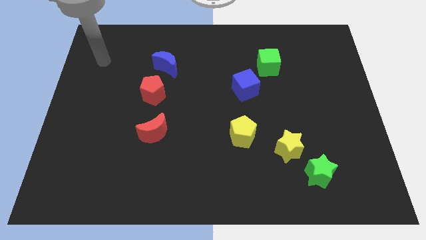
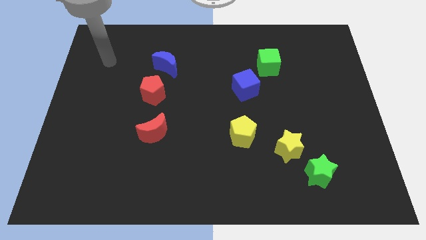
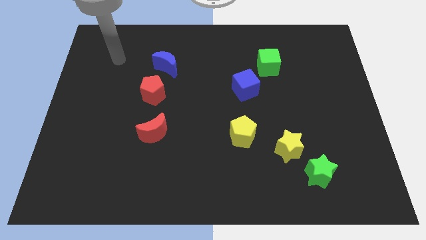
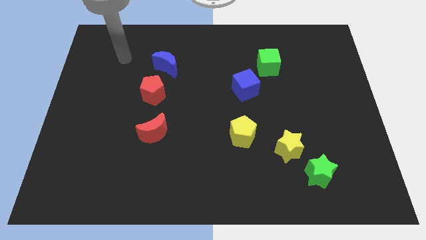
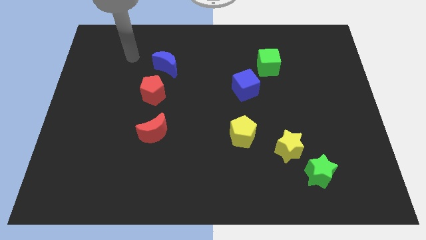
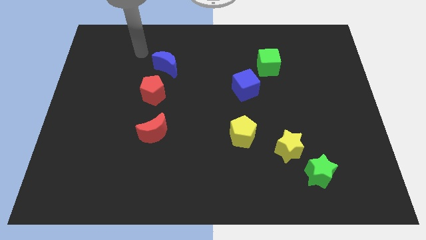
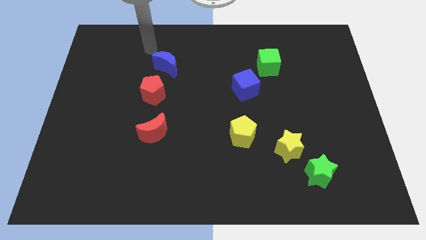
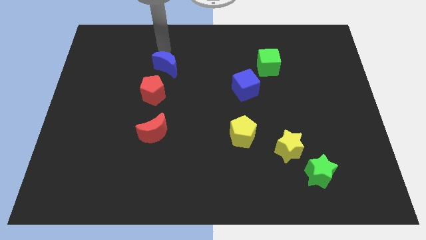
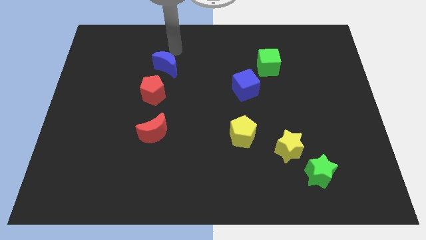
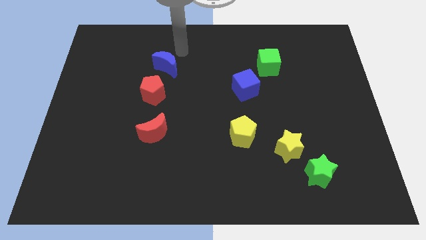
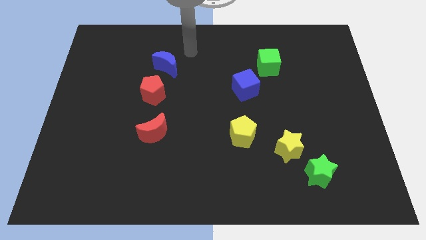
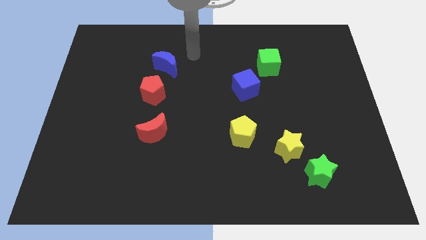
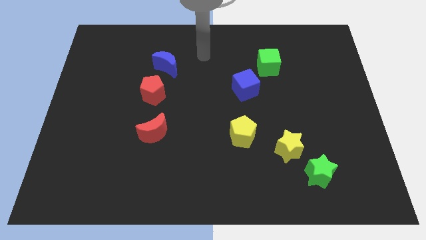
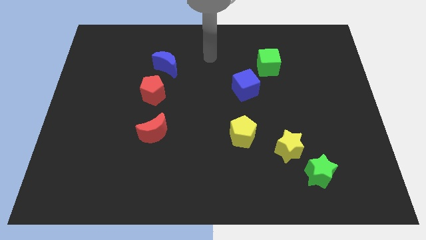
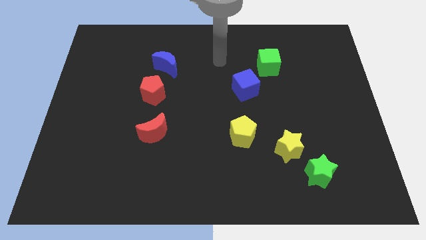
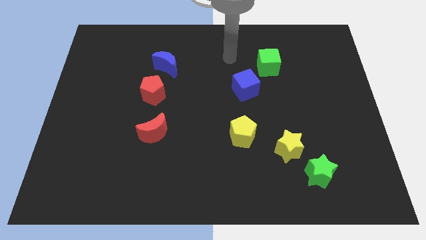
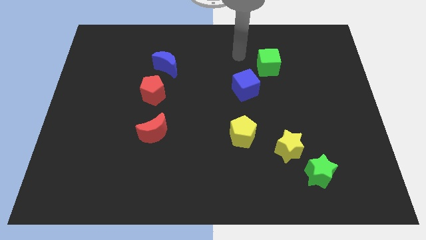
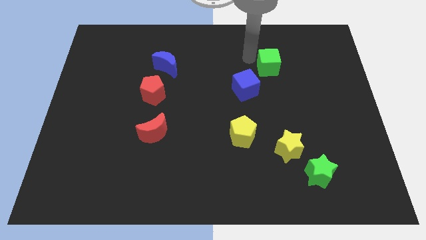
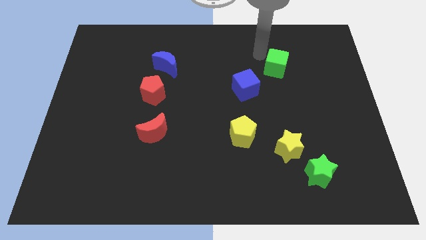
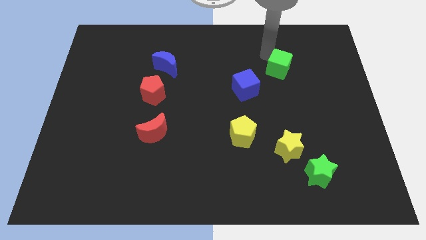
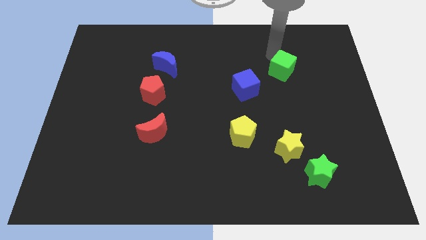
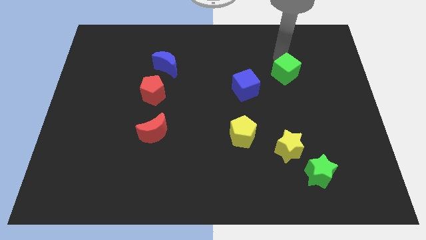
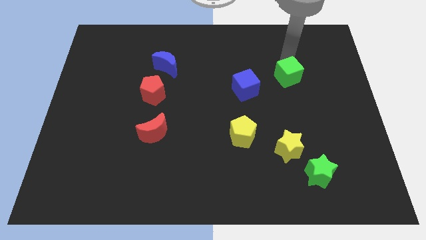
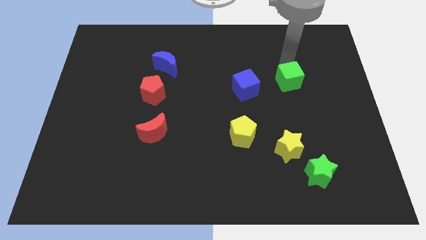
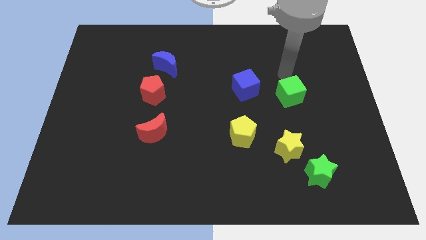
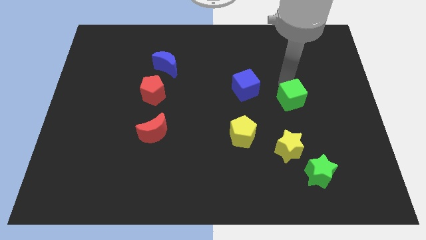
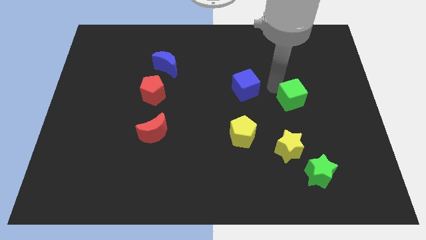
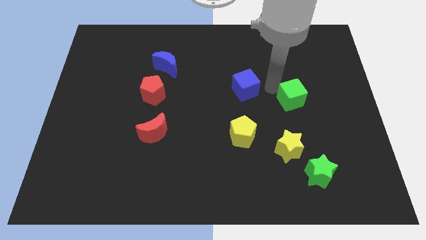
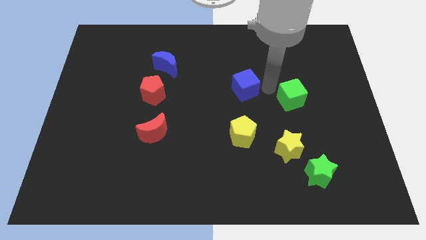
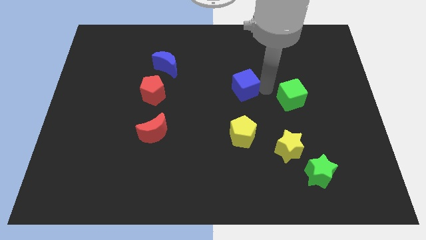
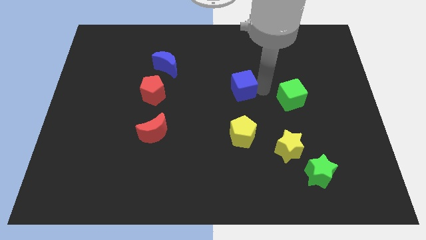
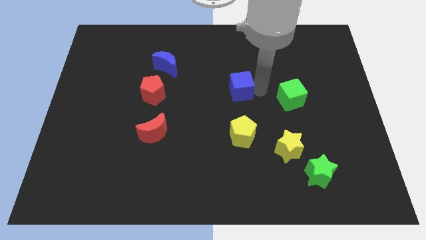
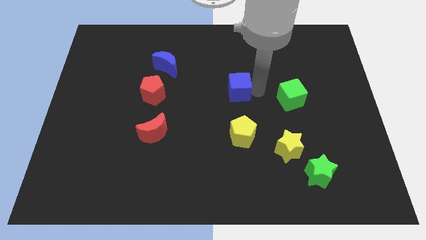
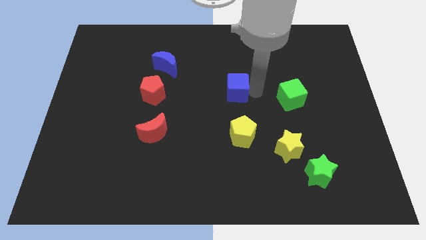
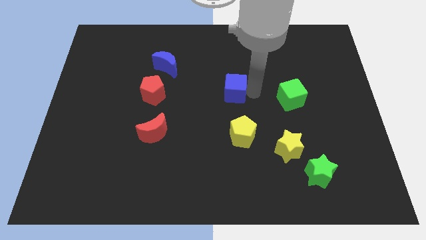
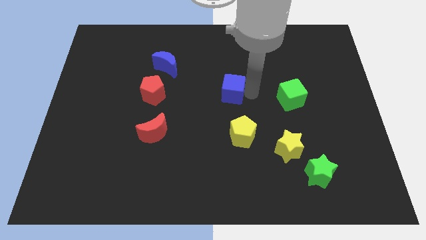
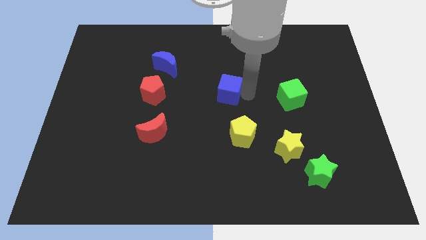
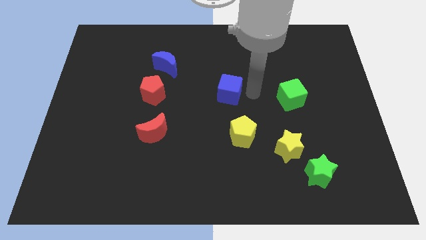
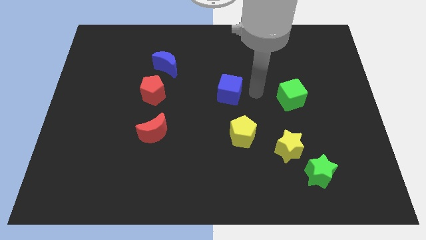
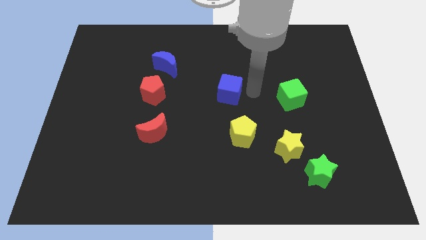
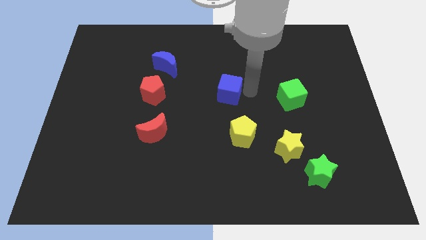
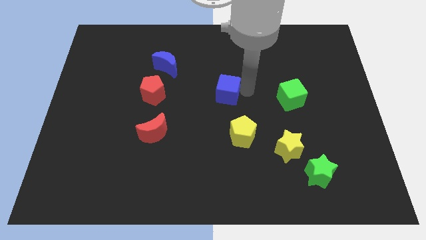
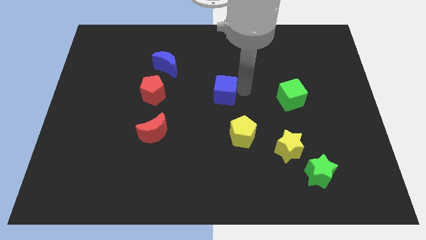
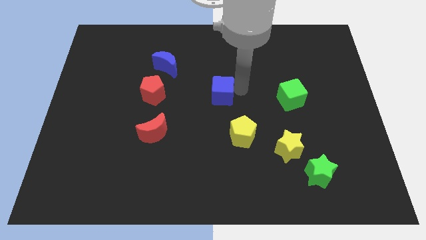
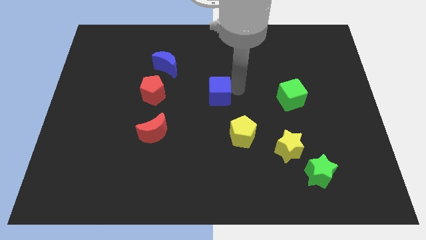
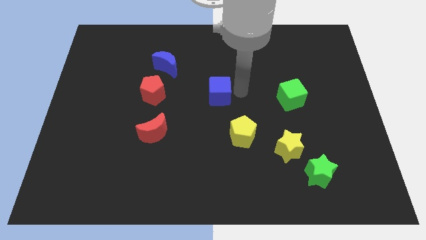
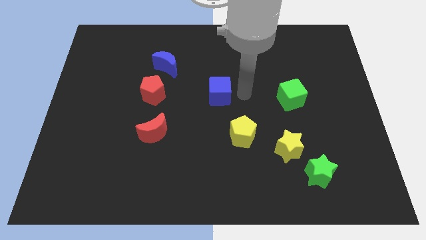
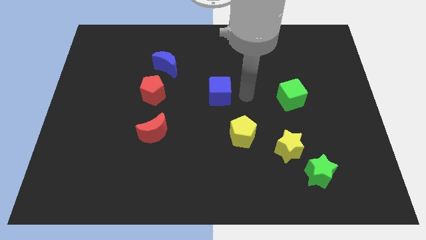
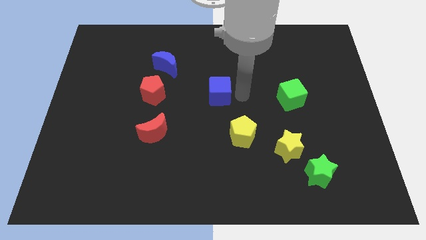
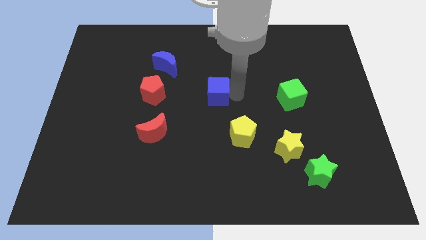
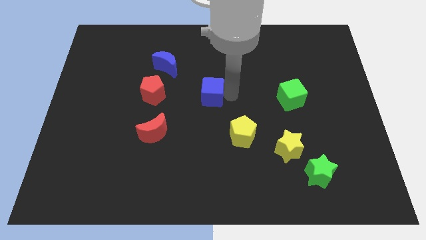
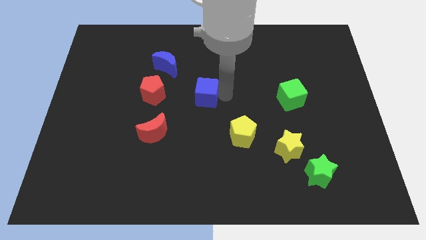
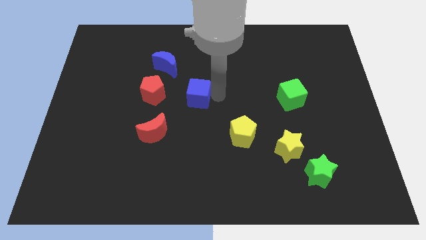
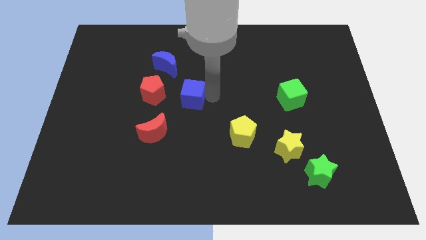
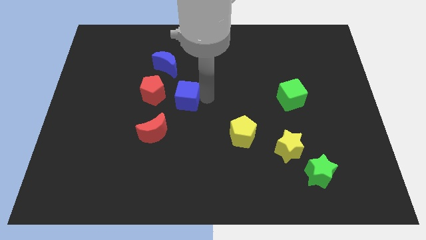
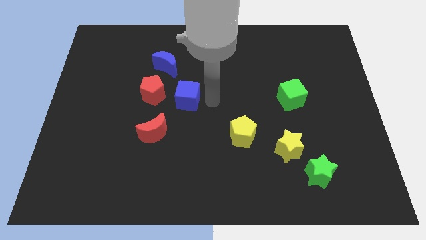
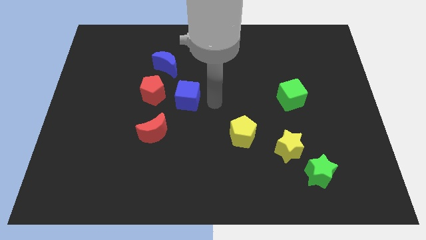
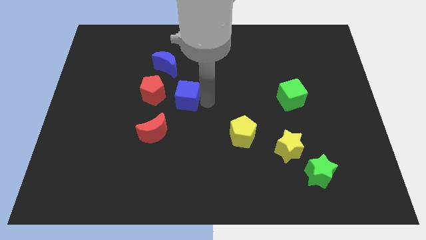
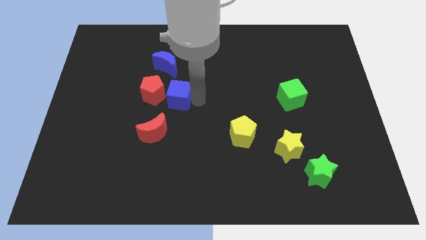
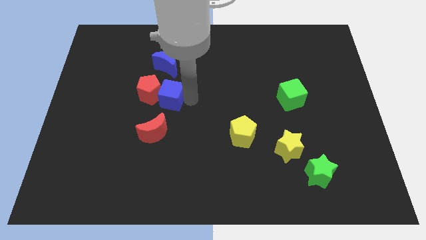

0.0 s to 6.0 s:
push the blue cube towards the red pentagon

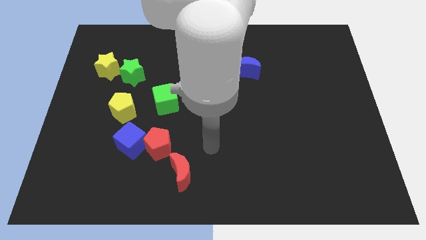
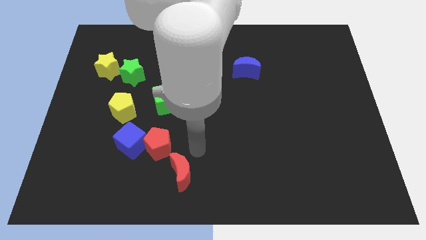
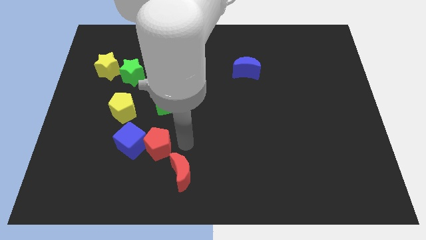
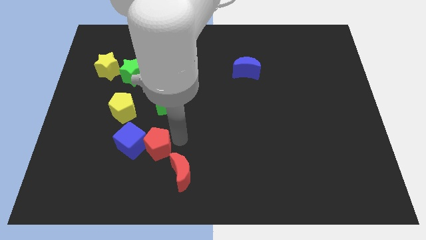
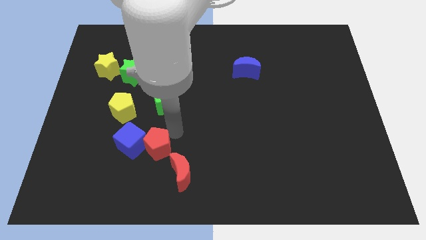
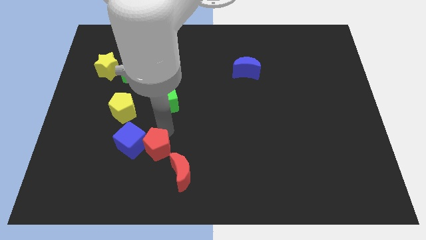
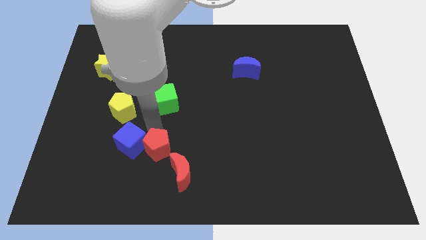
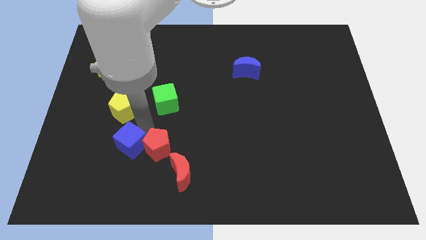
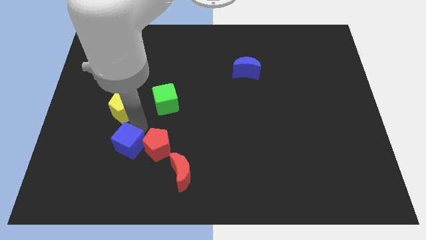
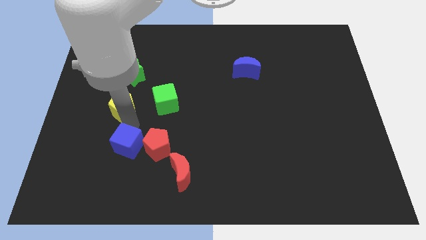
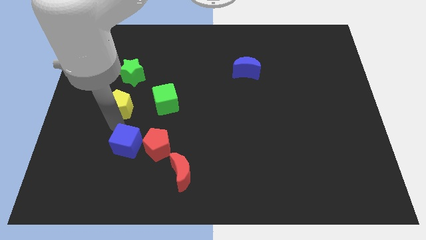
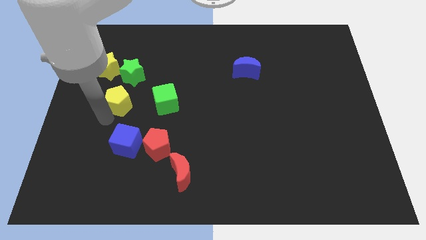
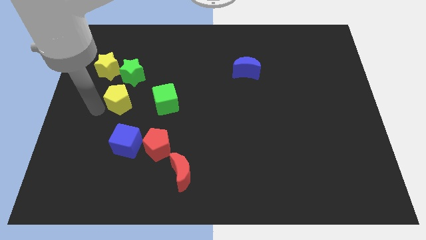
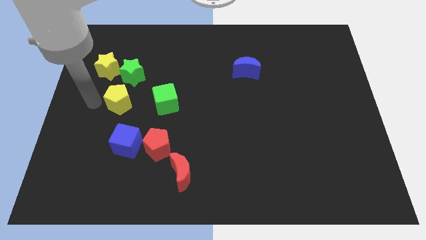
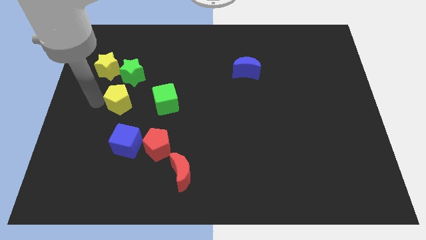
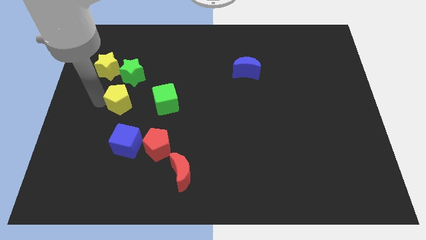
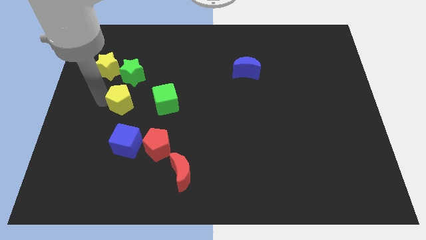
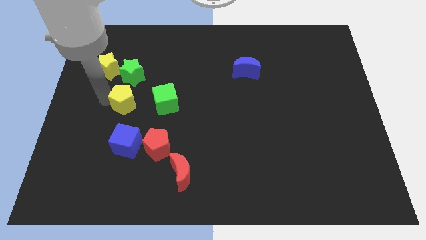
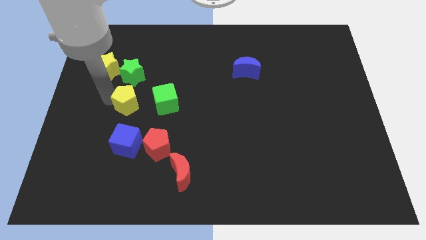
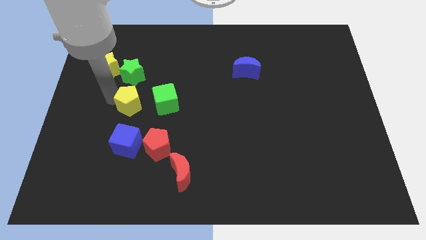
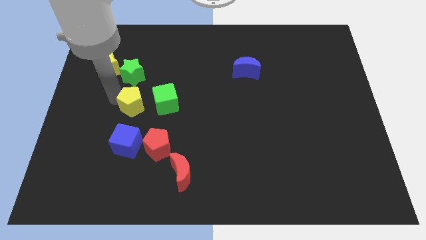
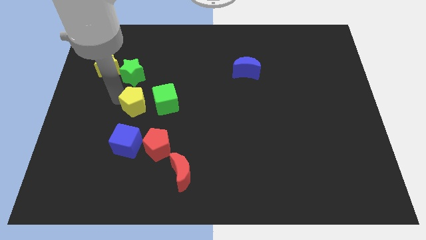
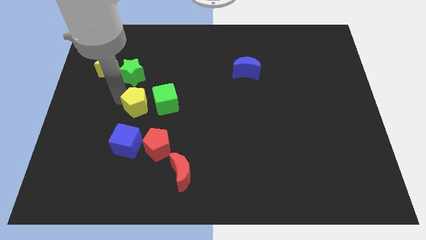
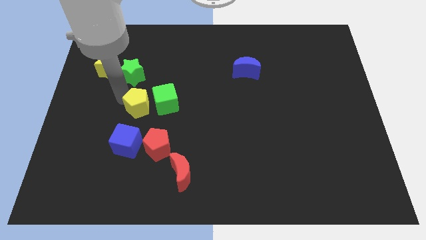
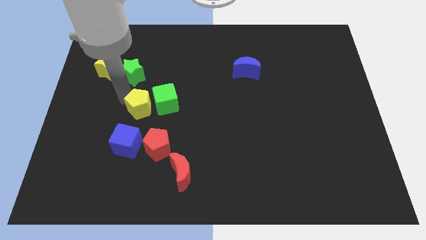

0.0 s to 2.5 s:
move the yellow pentagon next to the green cube
